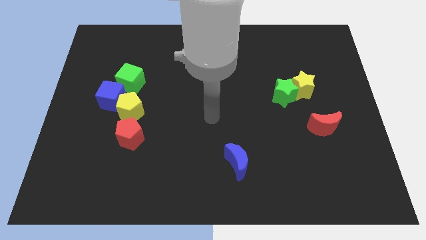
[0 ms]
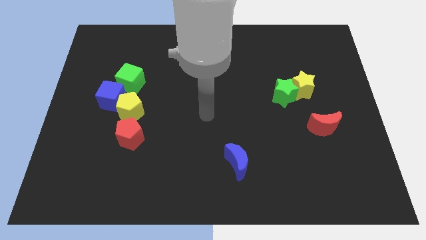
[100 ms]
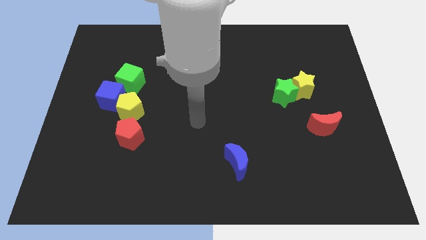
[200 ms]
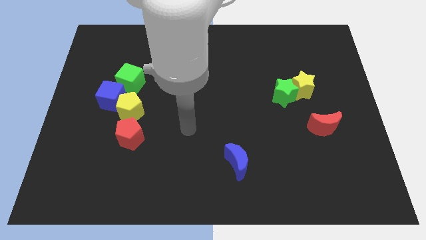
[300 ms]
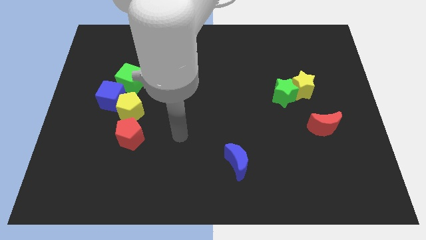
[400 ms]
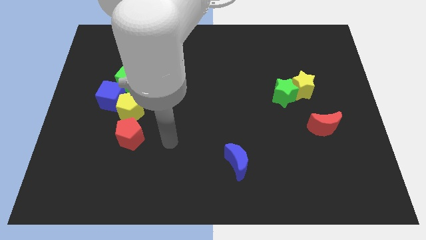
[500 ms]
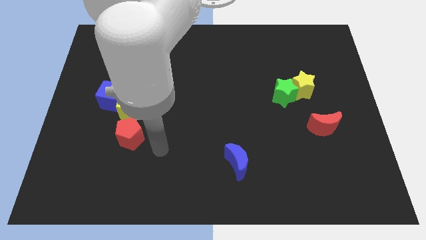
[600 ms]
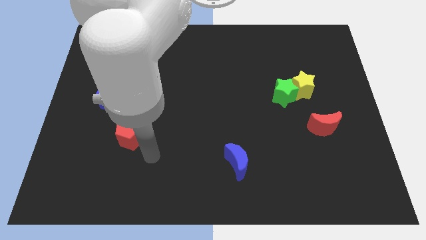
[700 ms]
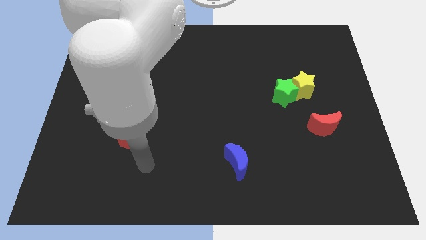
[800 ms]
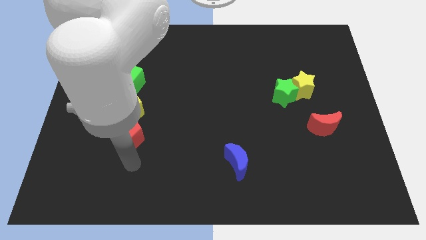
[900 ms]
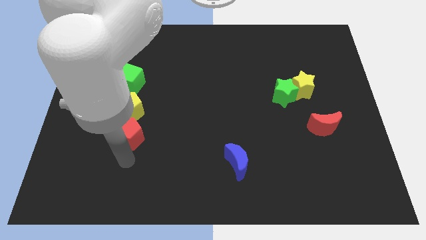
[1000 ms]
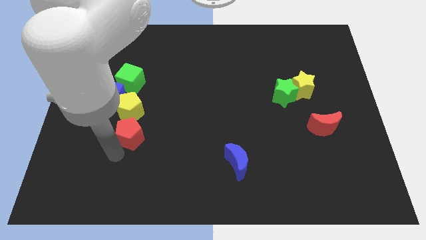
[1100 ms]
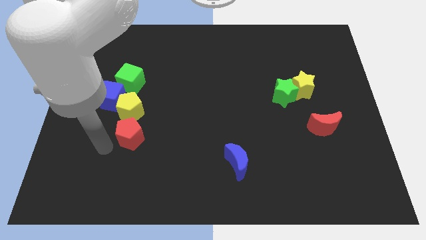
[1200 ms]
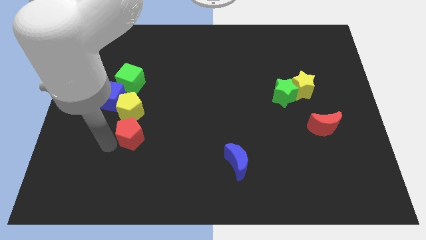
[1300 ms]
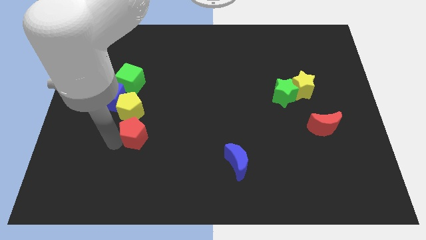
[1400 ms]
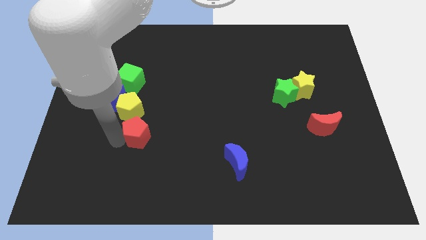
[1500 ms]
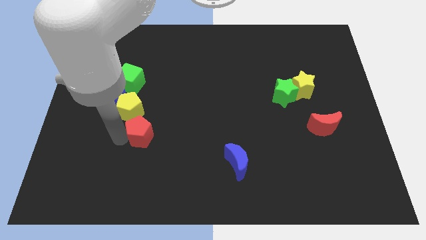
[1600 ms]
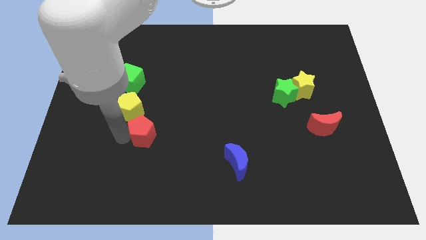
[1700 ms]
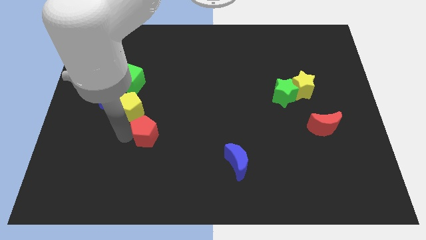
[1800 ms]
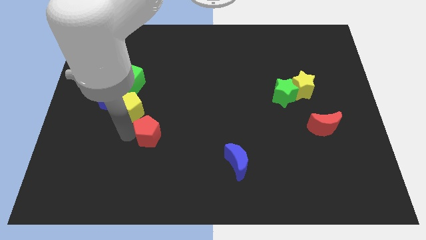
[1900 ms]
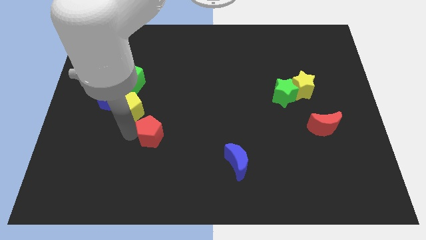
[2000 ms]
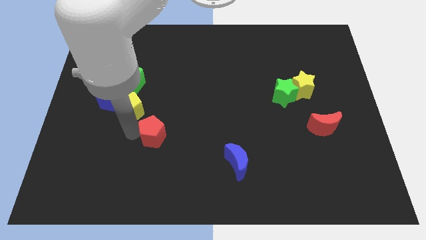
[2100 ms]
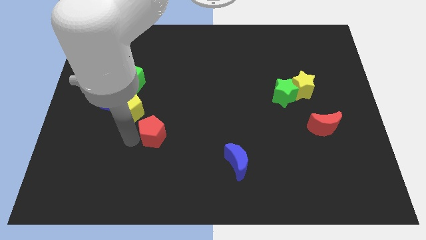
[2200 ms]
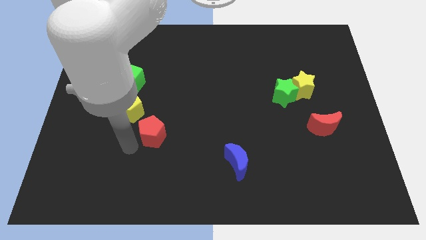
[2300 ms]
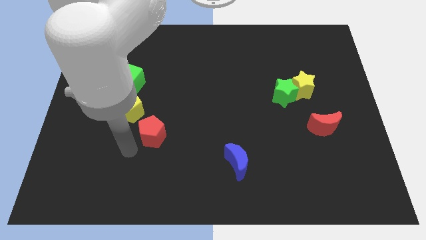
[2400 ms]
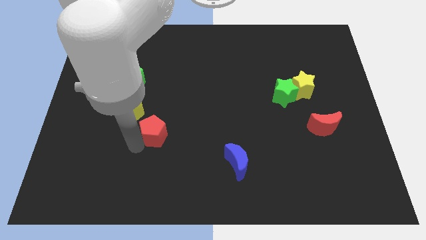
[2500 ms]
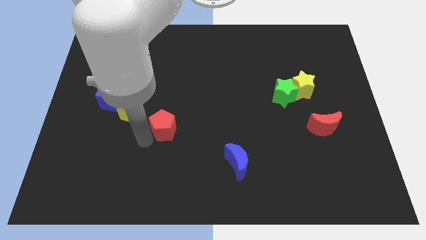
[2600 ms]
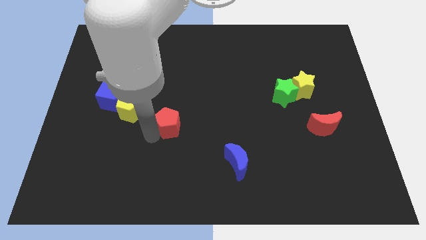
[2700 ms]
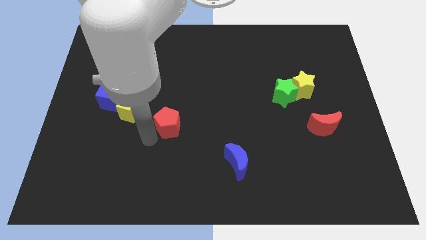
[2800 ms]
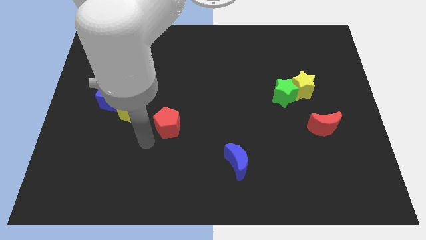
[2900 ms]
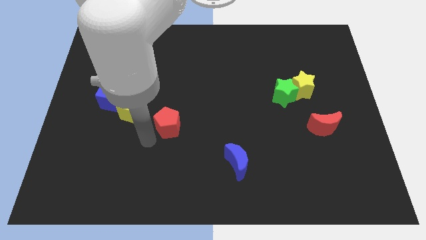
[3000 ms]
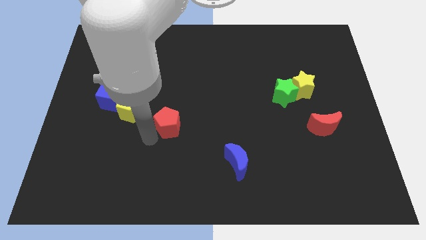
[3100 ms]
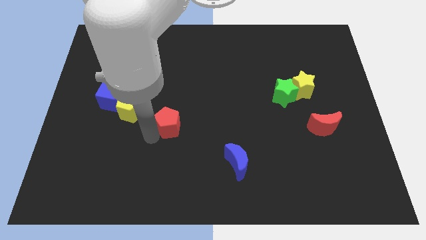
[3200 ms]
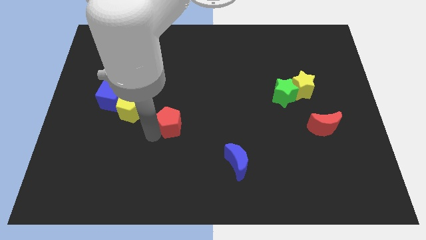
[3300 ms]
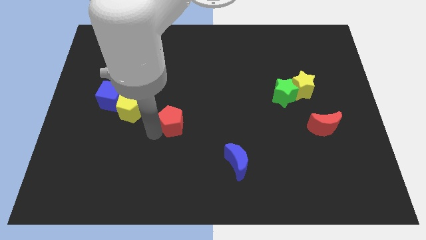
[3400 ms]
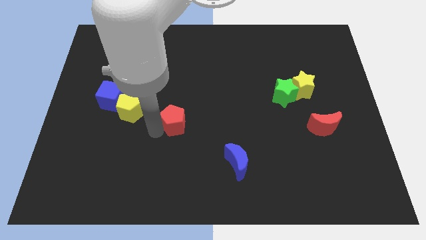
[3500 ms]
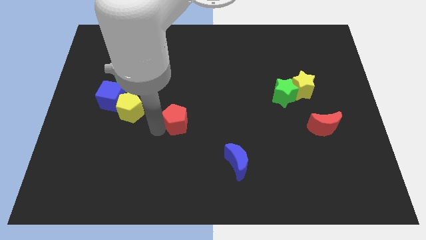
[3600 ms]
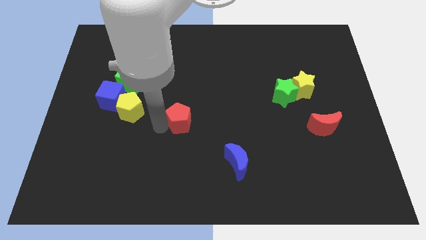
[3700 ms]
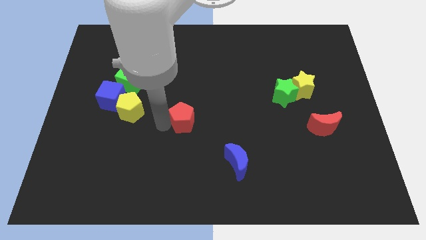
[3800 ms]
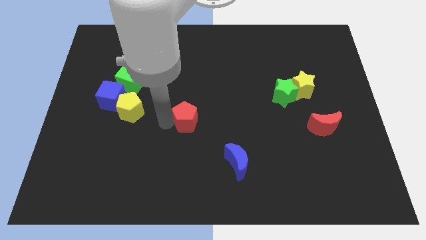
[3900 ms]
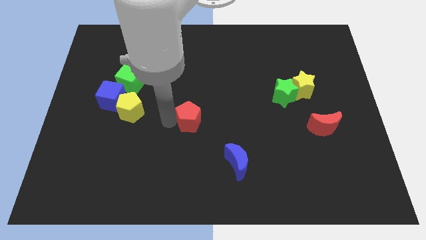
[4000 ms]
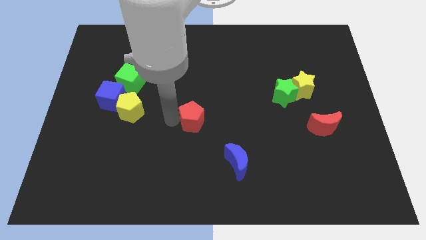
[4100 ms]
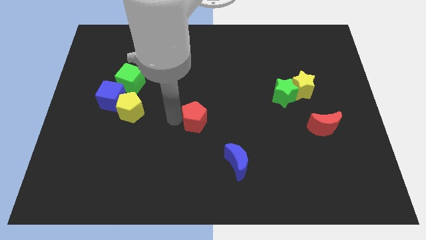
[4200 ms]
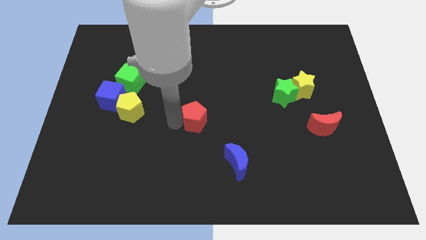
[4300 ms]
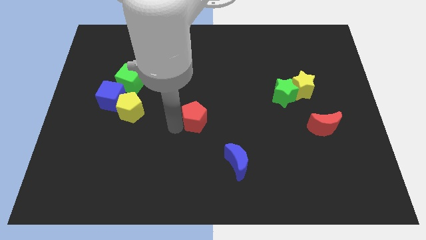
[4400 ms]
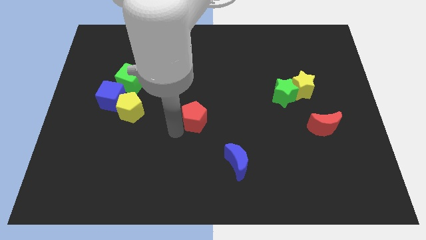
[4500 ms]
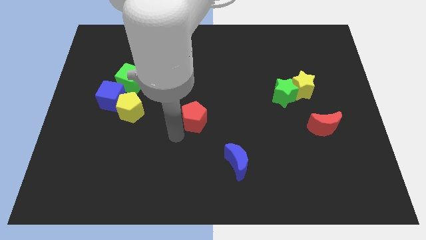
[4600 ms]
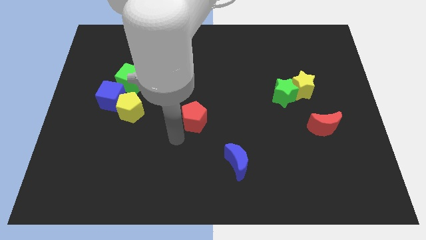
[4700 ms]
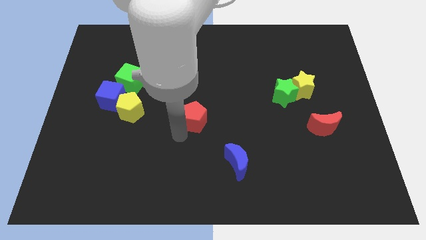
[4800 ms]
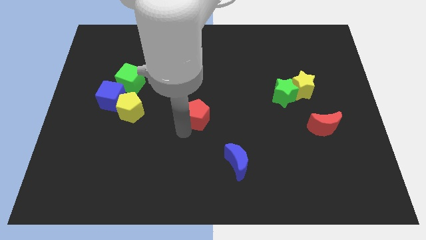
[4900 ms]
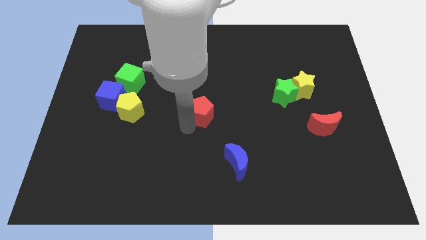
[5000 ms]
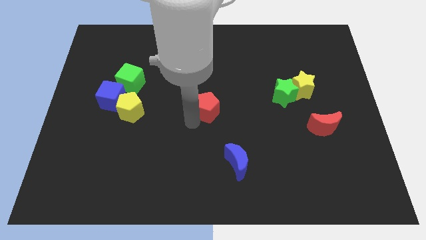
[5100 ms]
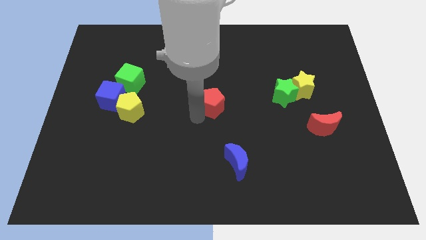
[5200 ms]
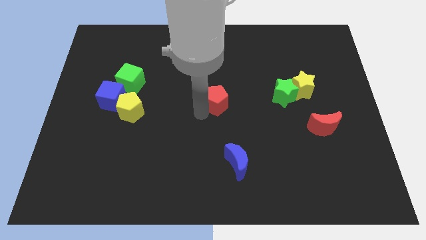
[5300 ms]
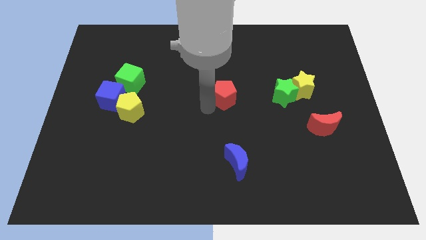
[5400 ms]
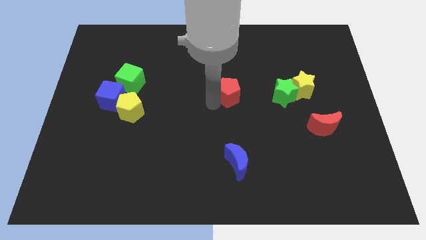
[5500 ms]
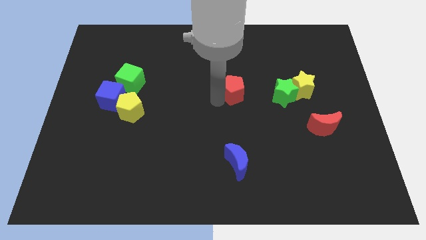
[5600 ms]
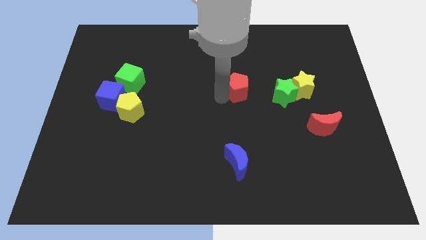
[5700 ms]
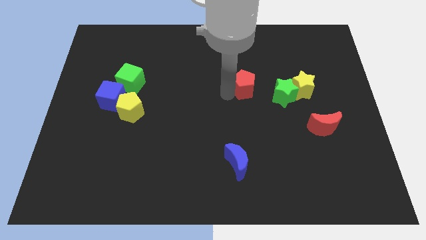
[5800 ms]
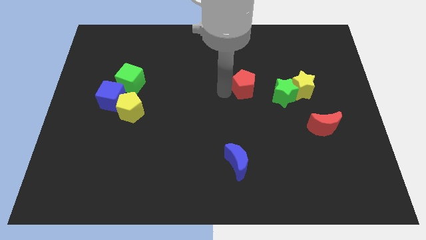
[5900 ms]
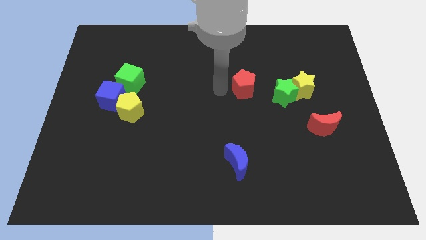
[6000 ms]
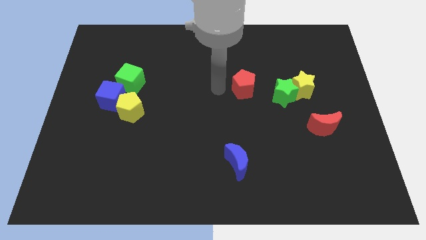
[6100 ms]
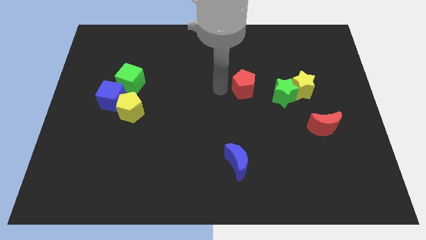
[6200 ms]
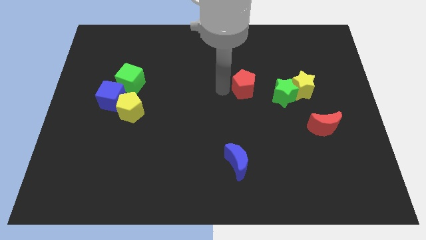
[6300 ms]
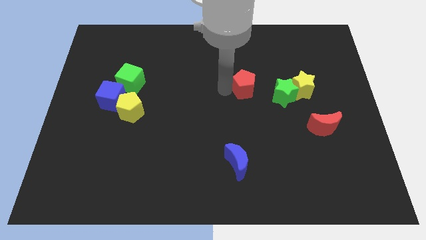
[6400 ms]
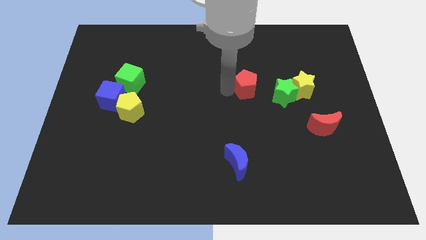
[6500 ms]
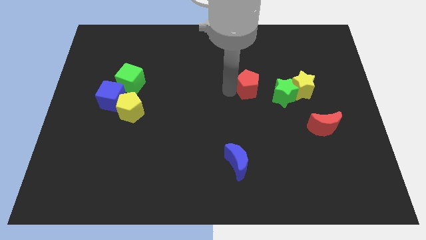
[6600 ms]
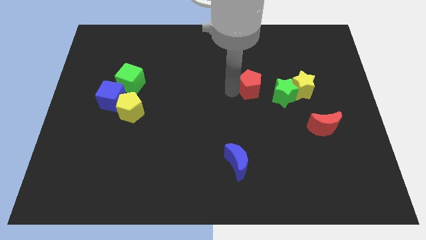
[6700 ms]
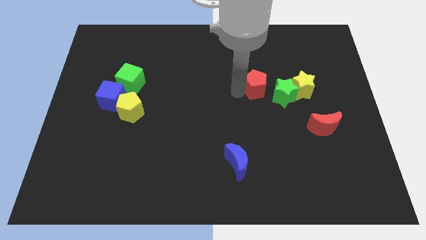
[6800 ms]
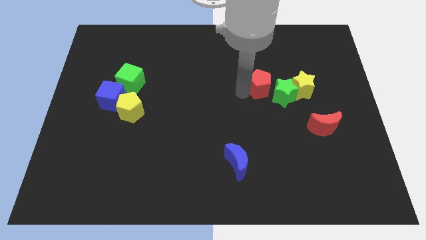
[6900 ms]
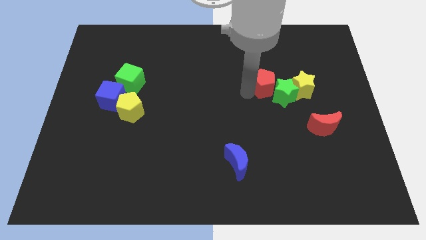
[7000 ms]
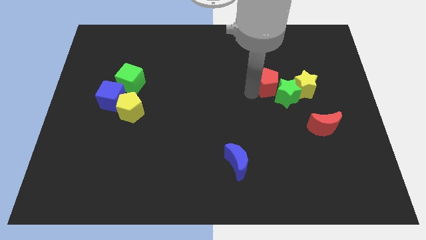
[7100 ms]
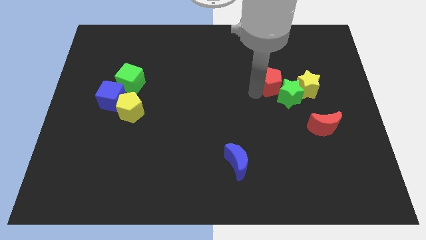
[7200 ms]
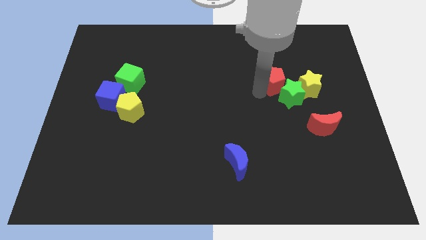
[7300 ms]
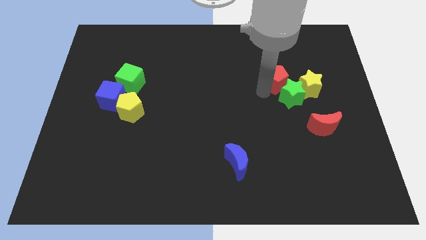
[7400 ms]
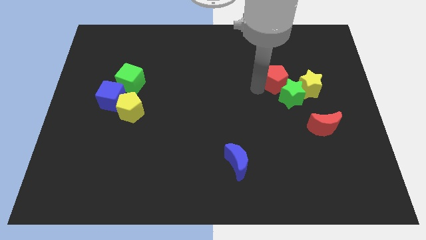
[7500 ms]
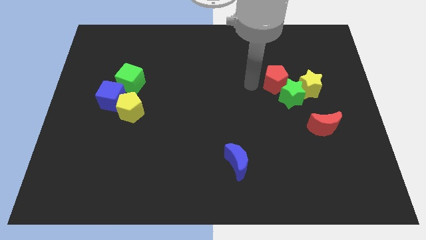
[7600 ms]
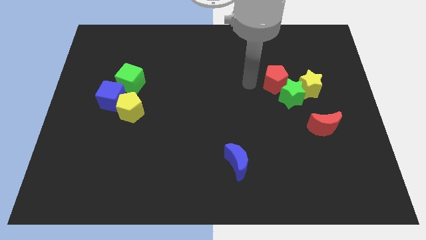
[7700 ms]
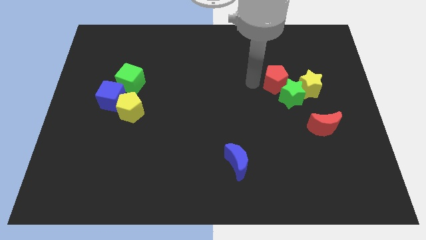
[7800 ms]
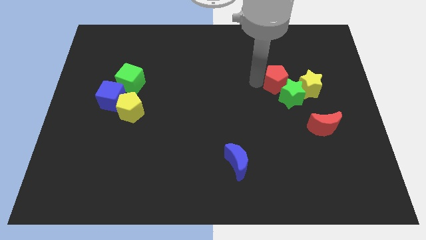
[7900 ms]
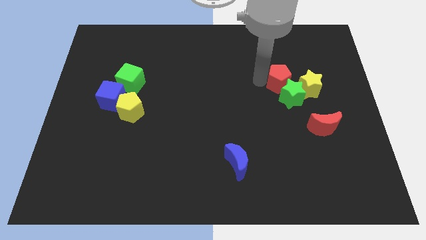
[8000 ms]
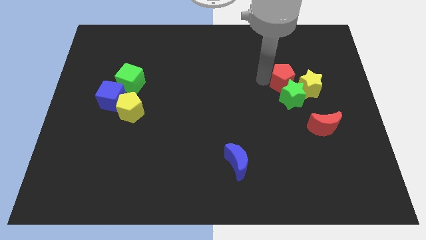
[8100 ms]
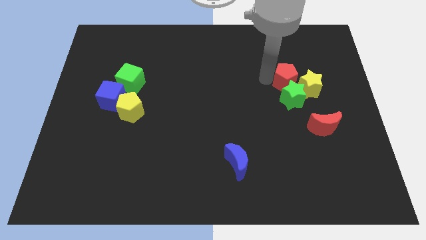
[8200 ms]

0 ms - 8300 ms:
push the red pentagon to the top right of the green star
